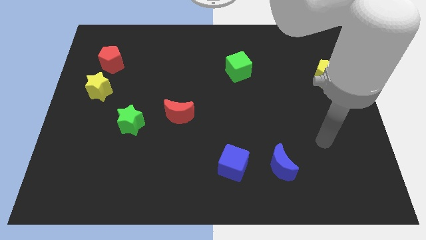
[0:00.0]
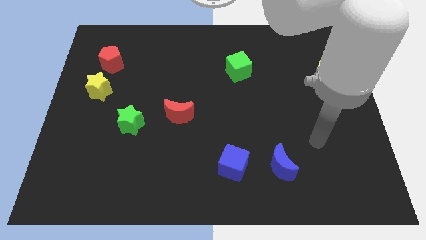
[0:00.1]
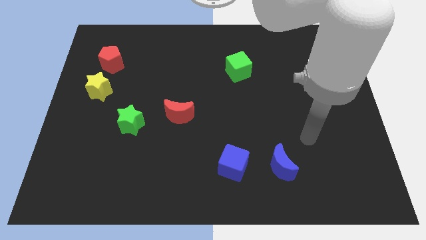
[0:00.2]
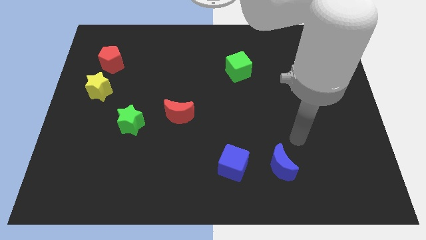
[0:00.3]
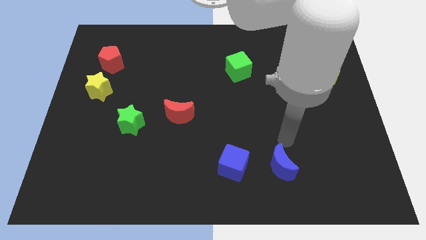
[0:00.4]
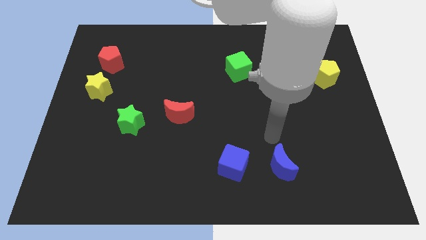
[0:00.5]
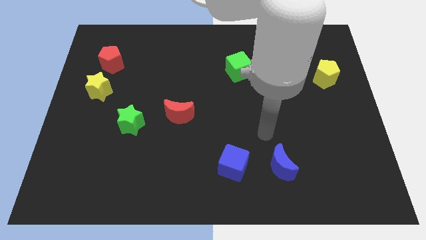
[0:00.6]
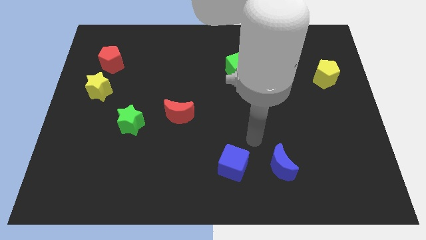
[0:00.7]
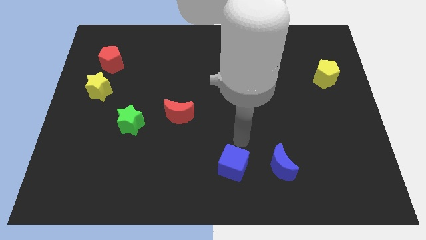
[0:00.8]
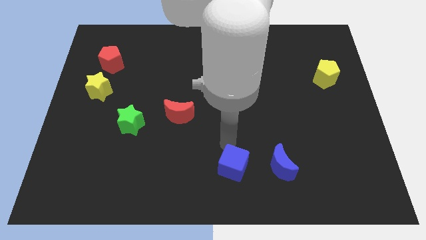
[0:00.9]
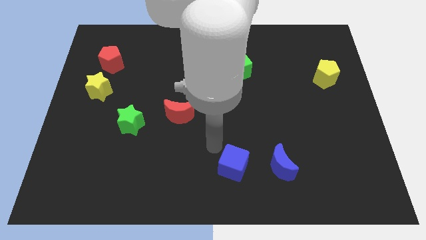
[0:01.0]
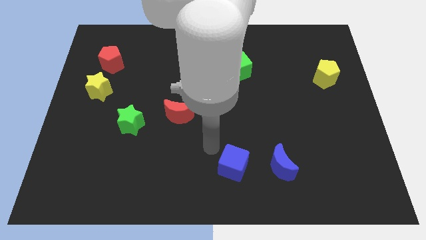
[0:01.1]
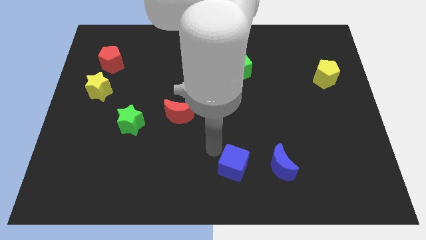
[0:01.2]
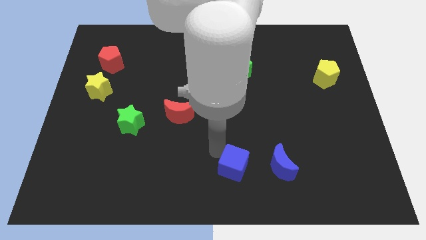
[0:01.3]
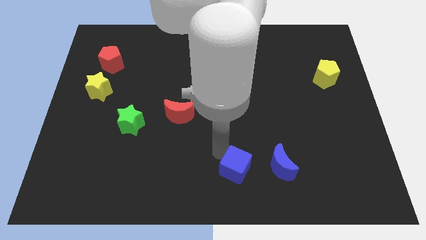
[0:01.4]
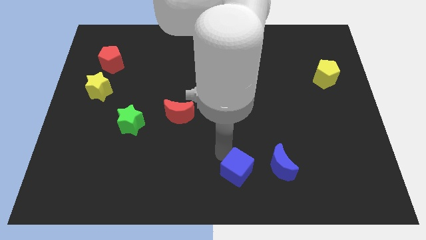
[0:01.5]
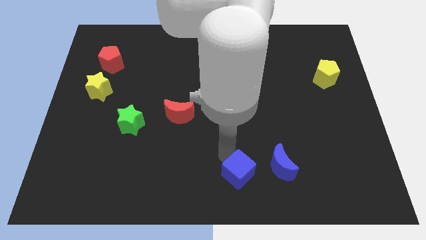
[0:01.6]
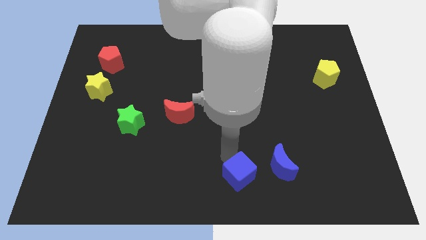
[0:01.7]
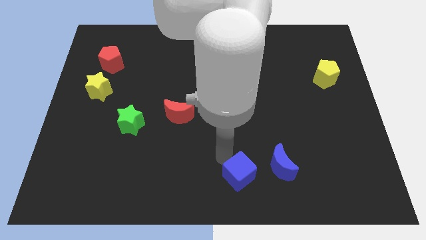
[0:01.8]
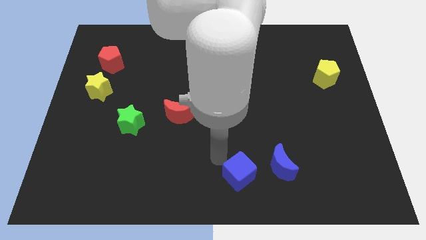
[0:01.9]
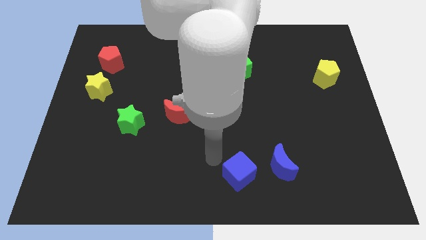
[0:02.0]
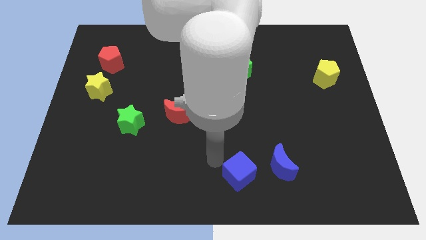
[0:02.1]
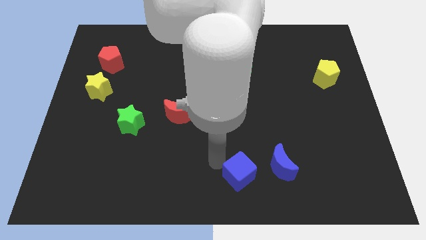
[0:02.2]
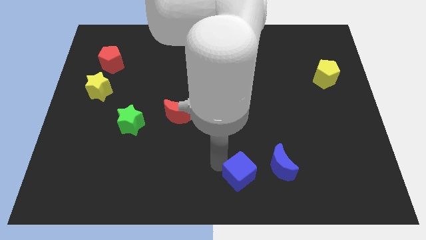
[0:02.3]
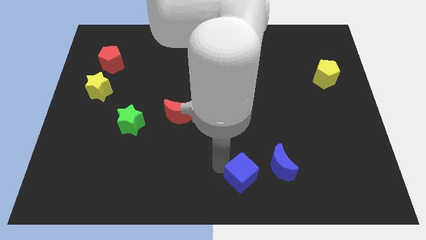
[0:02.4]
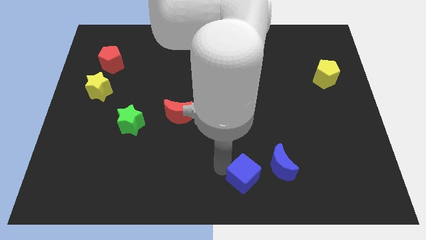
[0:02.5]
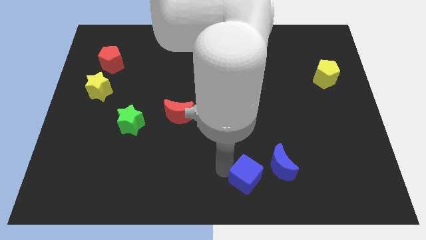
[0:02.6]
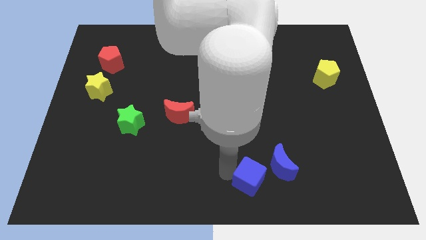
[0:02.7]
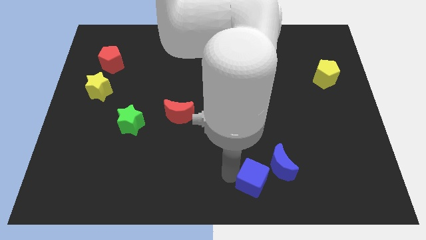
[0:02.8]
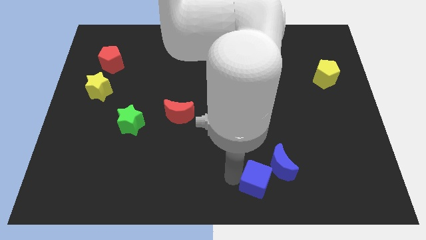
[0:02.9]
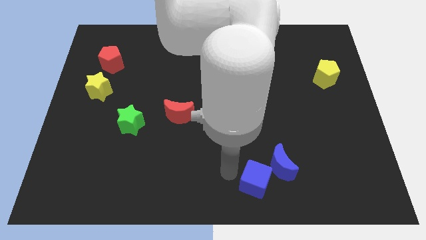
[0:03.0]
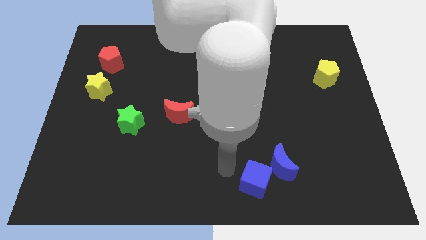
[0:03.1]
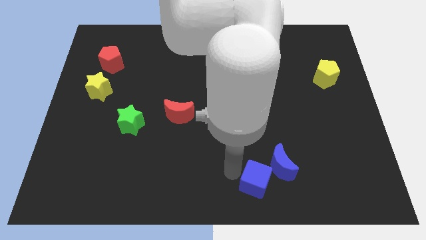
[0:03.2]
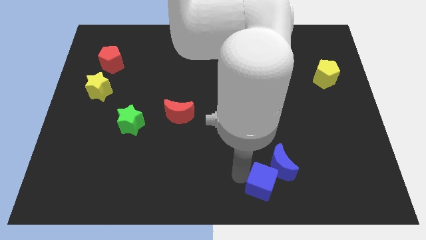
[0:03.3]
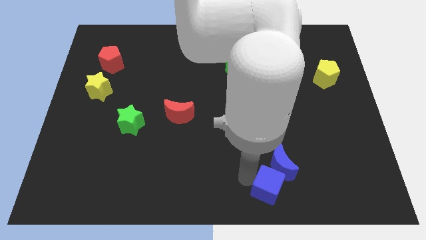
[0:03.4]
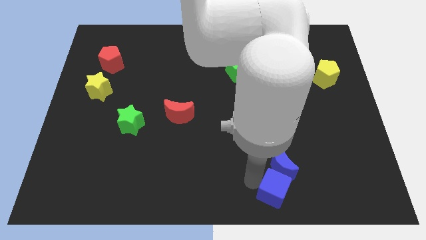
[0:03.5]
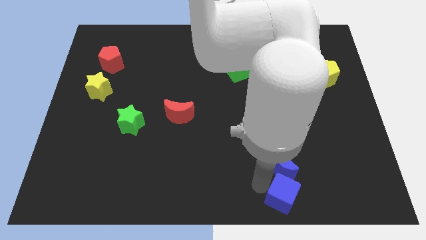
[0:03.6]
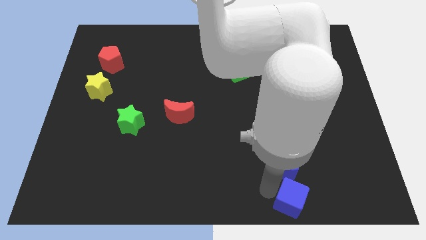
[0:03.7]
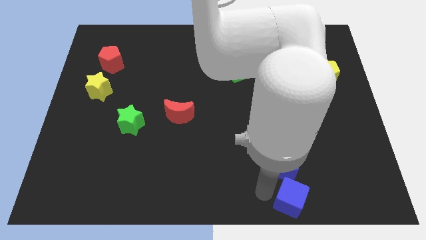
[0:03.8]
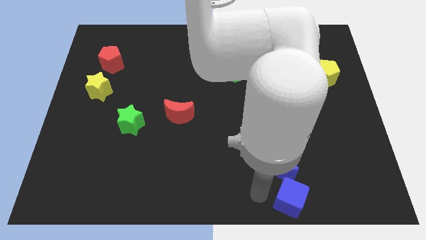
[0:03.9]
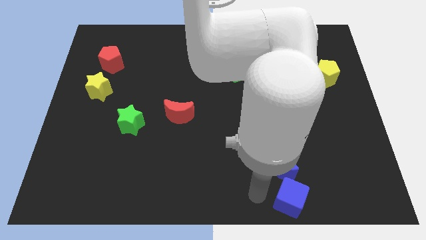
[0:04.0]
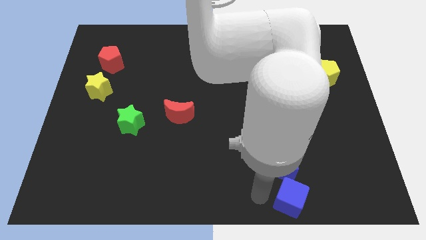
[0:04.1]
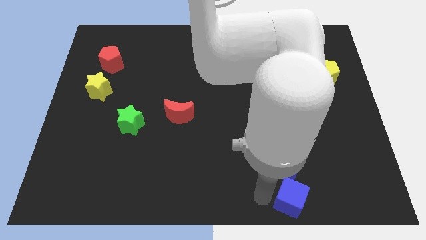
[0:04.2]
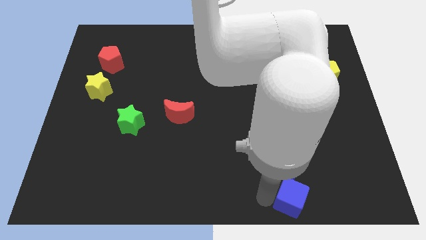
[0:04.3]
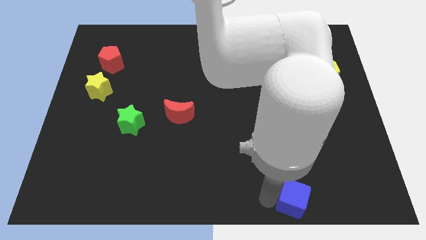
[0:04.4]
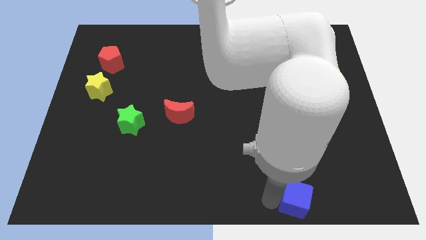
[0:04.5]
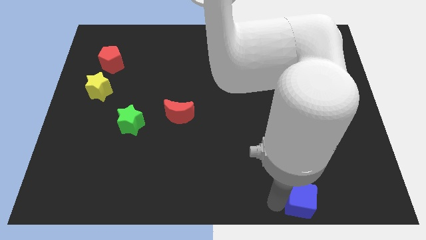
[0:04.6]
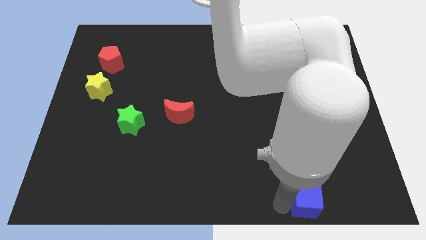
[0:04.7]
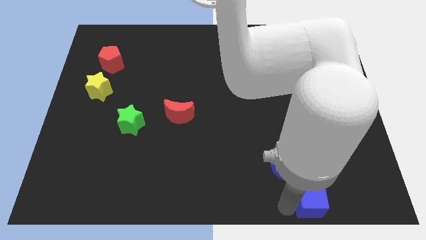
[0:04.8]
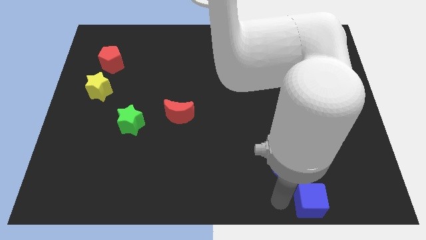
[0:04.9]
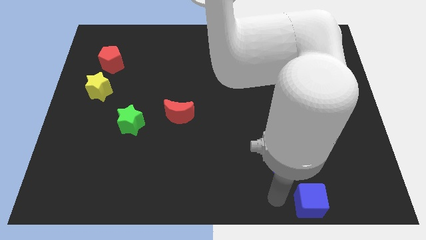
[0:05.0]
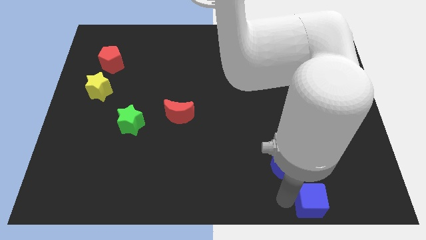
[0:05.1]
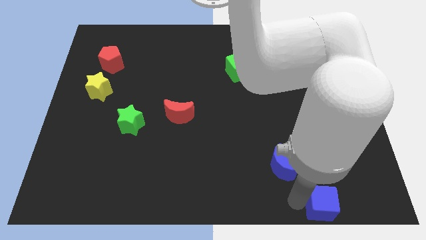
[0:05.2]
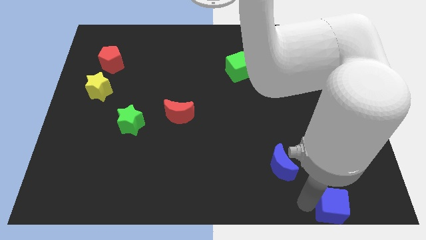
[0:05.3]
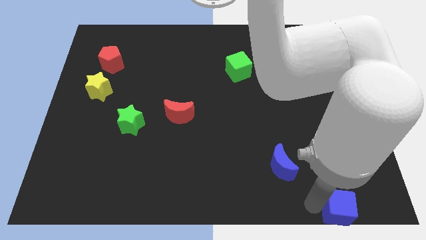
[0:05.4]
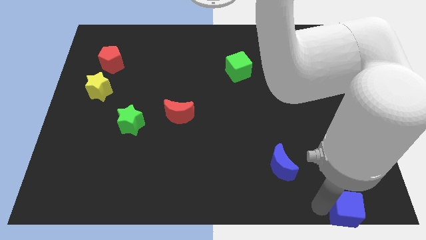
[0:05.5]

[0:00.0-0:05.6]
slide the blue cube to the bottom right
